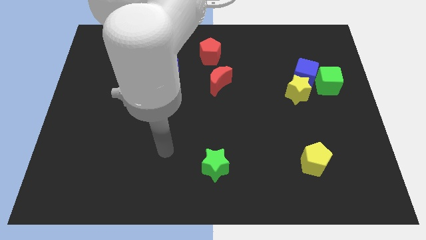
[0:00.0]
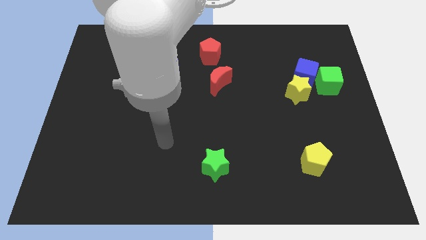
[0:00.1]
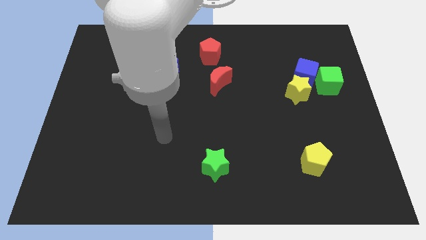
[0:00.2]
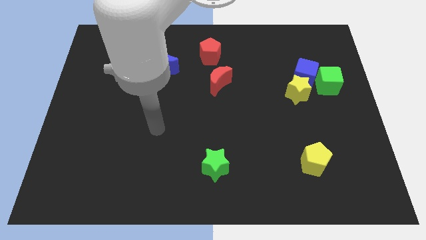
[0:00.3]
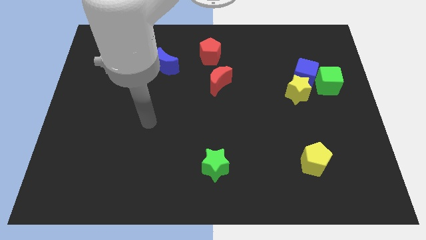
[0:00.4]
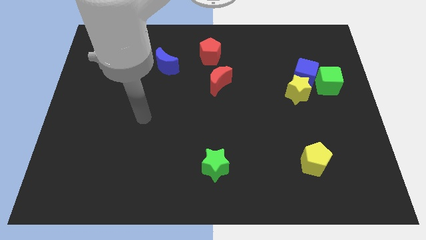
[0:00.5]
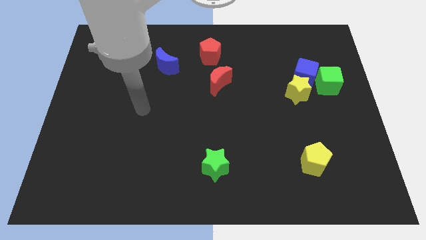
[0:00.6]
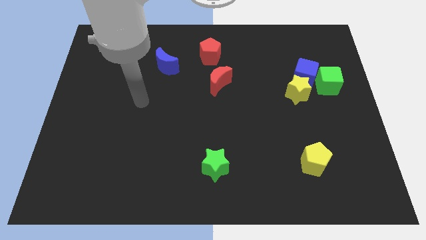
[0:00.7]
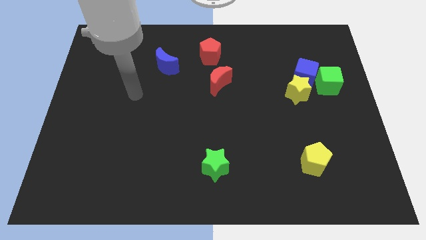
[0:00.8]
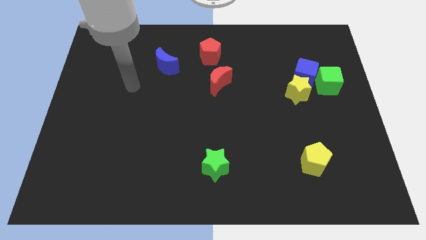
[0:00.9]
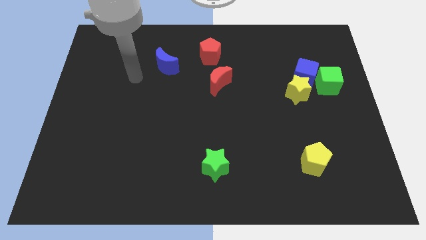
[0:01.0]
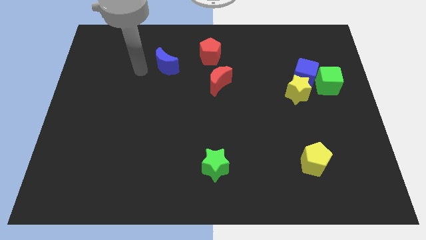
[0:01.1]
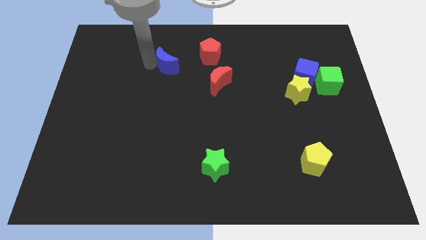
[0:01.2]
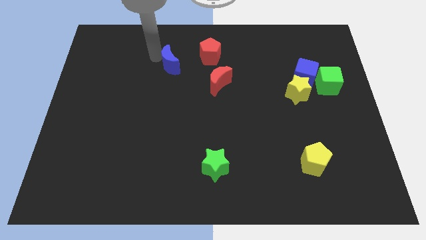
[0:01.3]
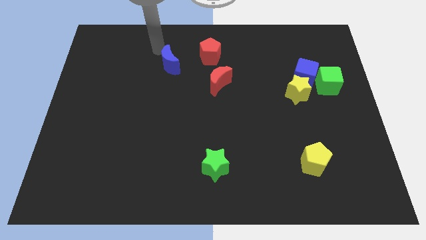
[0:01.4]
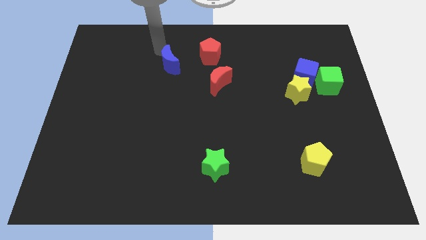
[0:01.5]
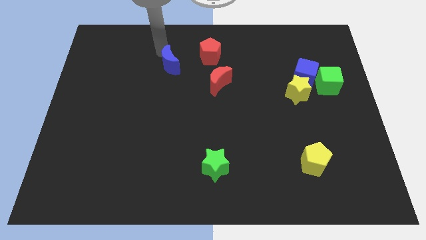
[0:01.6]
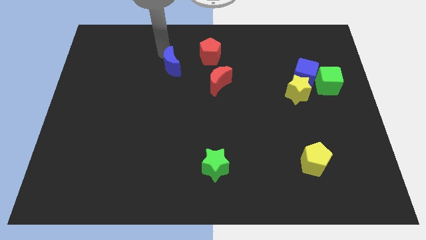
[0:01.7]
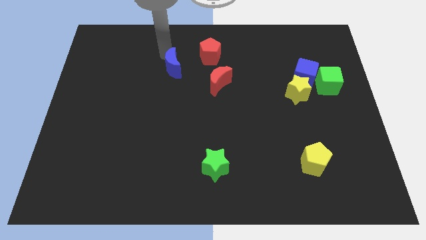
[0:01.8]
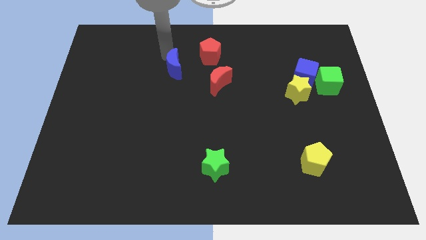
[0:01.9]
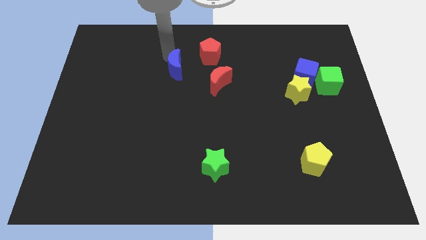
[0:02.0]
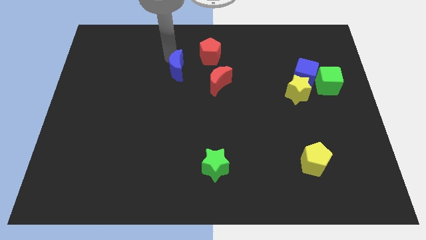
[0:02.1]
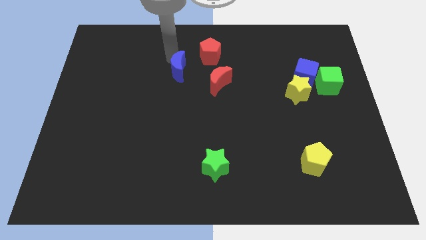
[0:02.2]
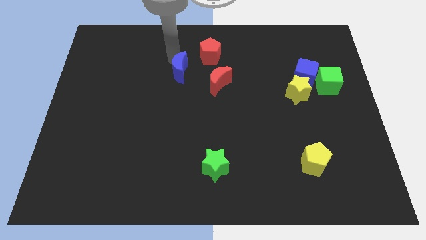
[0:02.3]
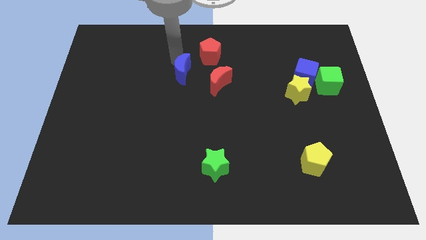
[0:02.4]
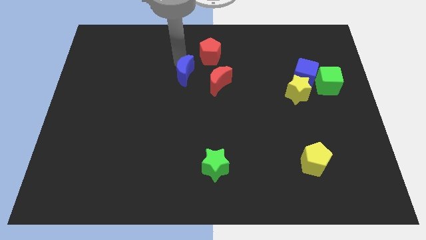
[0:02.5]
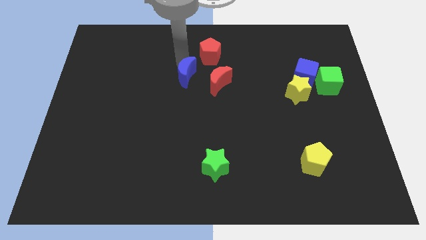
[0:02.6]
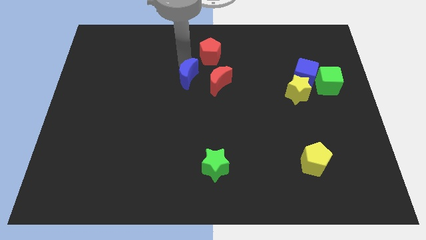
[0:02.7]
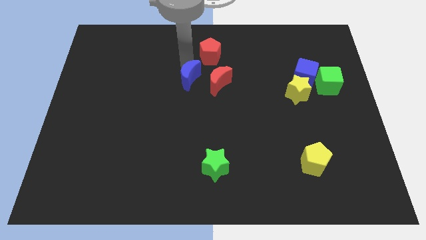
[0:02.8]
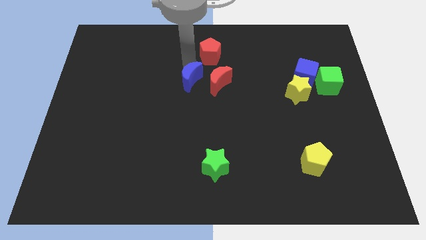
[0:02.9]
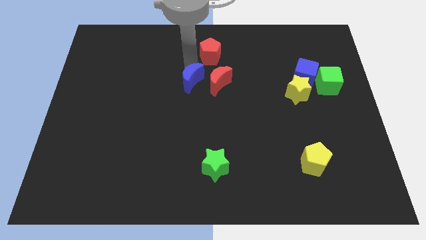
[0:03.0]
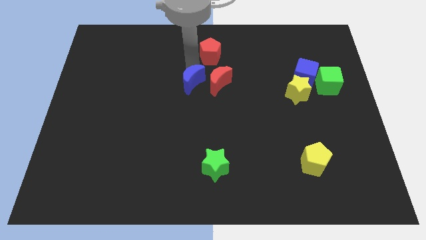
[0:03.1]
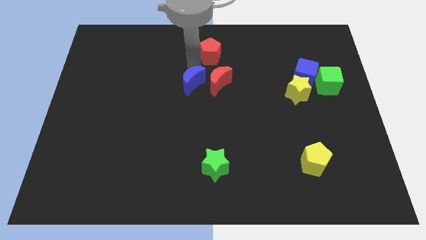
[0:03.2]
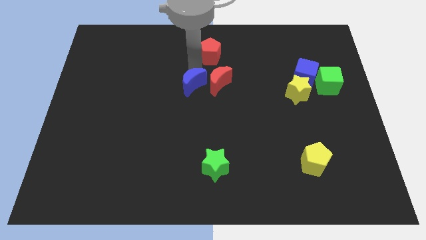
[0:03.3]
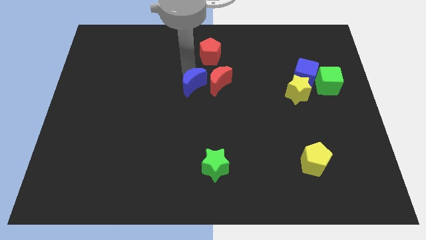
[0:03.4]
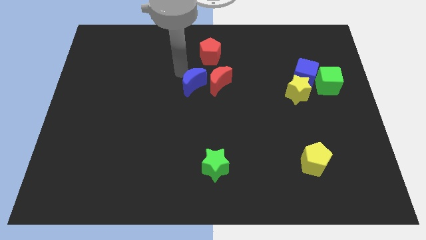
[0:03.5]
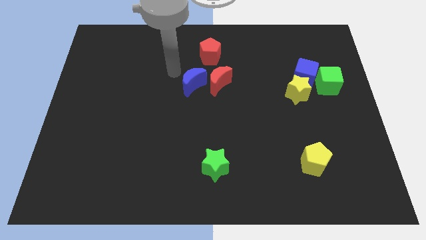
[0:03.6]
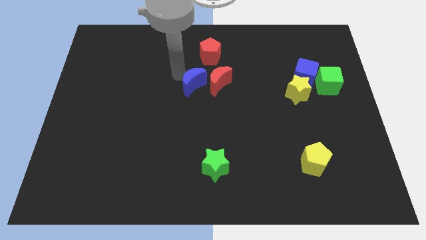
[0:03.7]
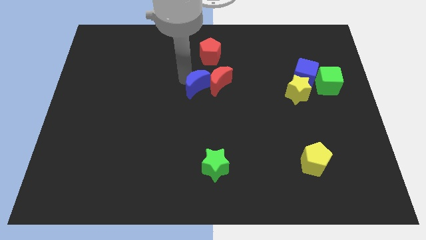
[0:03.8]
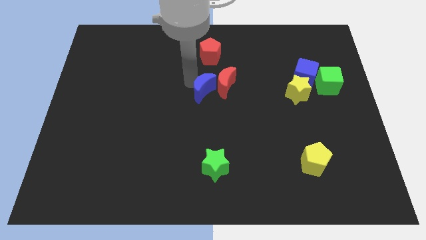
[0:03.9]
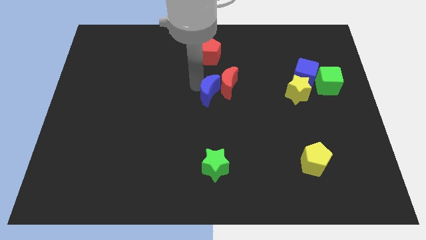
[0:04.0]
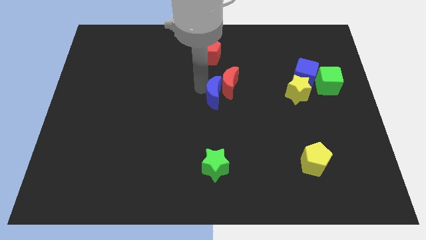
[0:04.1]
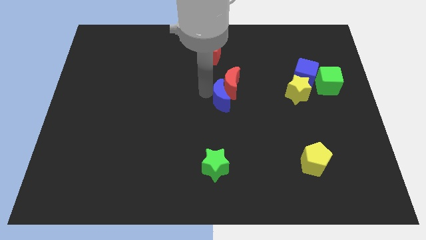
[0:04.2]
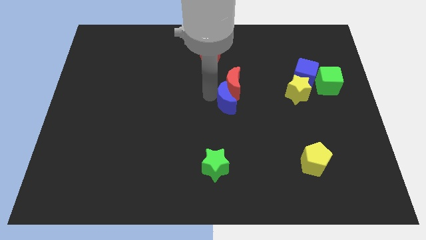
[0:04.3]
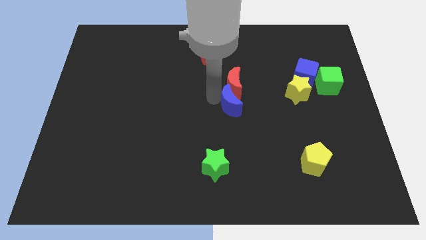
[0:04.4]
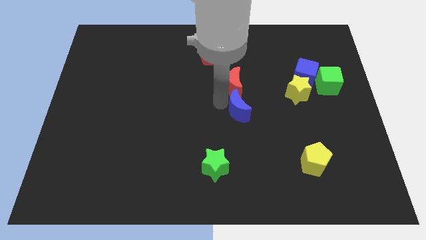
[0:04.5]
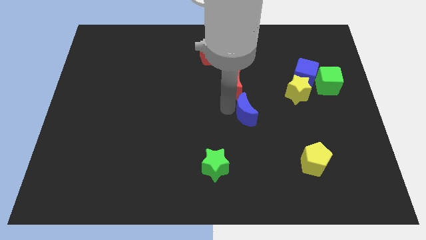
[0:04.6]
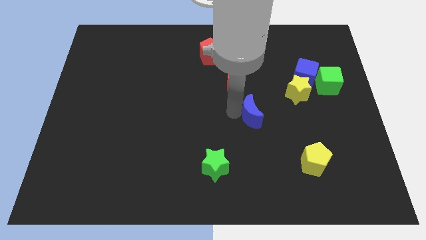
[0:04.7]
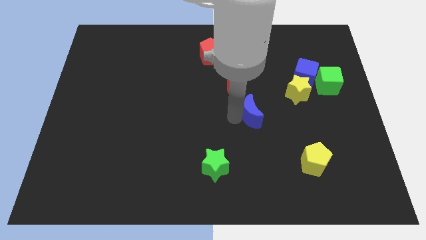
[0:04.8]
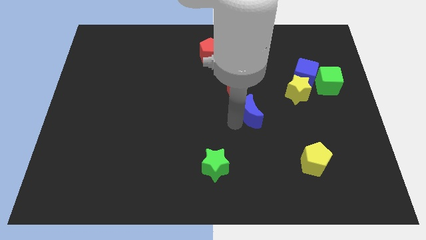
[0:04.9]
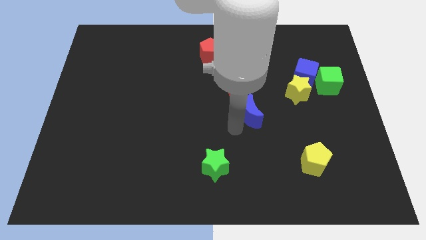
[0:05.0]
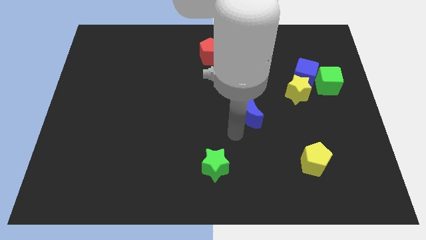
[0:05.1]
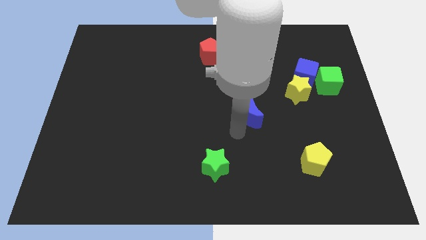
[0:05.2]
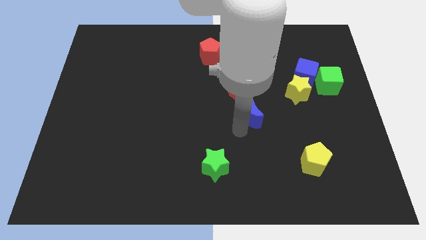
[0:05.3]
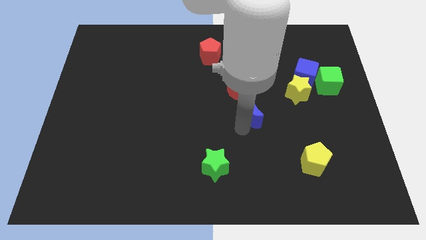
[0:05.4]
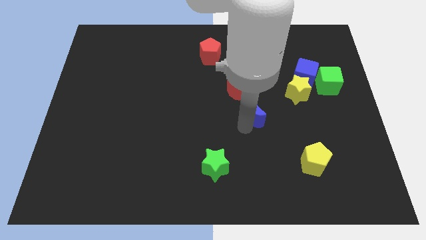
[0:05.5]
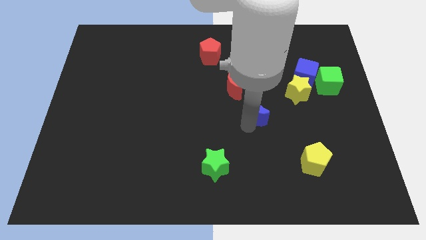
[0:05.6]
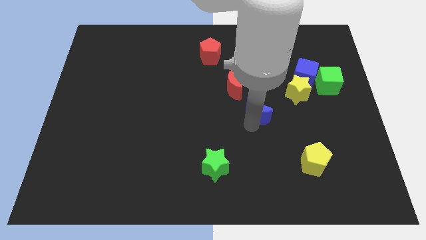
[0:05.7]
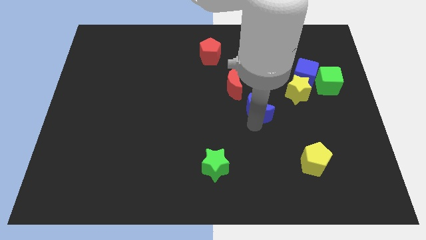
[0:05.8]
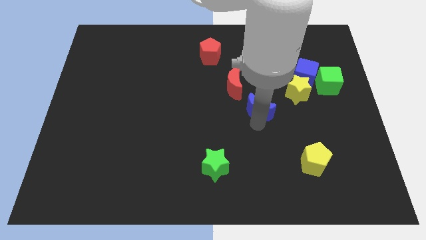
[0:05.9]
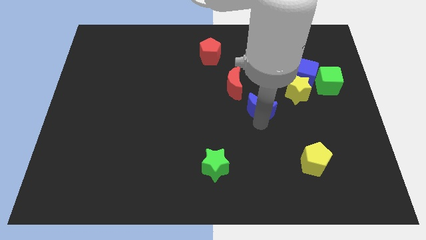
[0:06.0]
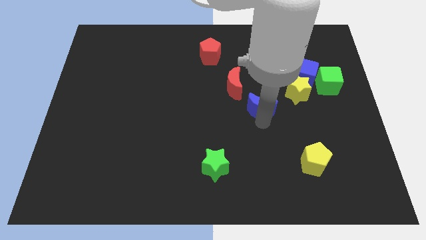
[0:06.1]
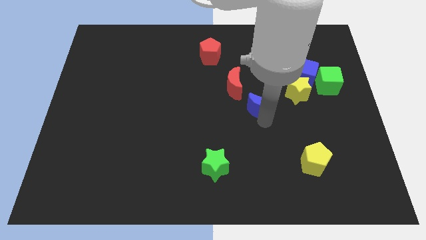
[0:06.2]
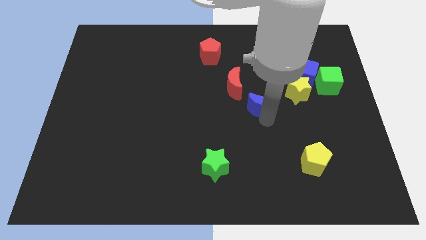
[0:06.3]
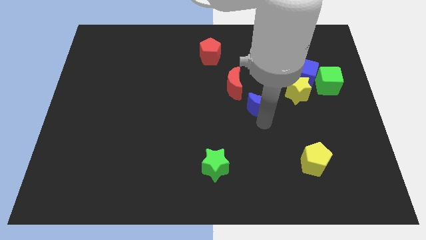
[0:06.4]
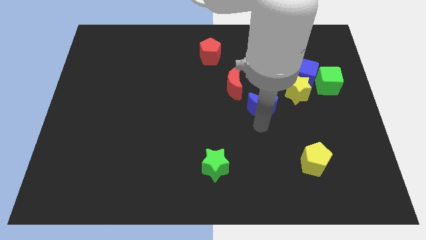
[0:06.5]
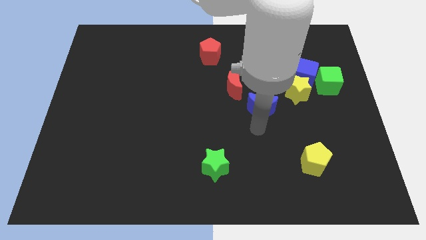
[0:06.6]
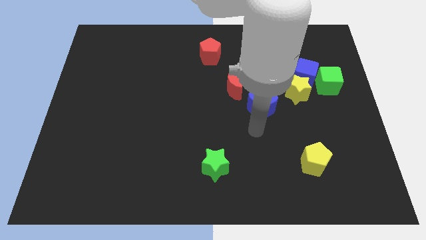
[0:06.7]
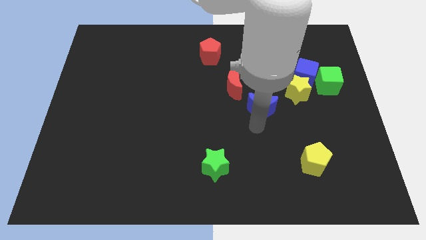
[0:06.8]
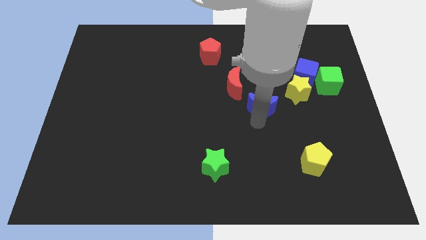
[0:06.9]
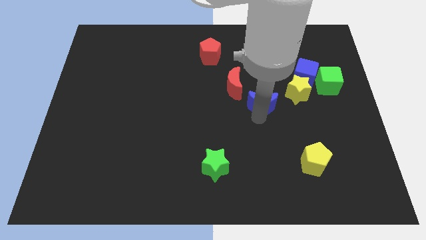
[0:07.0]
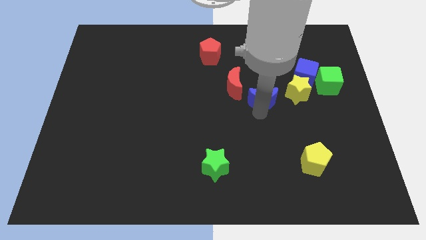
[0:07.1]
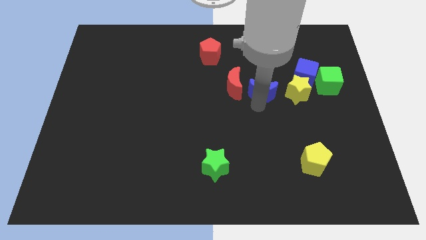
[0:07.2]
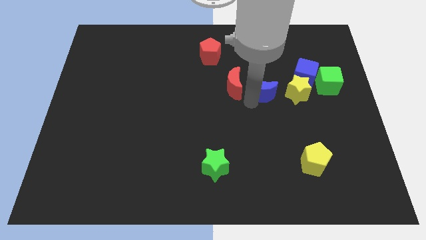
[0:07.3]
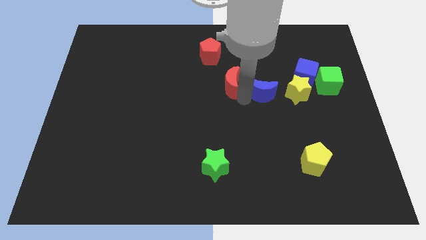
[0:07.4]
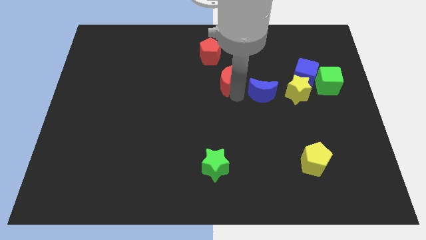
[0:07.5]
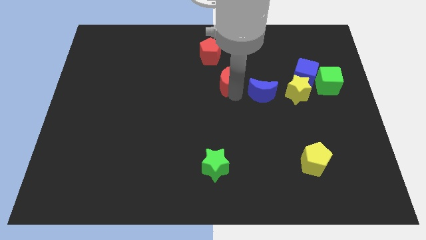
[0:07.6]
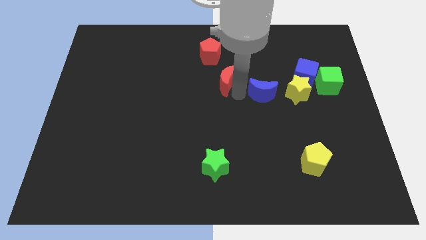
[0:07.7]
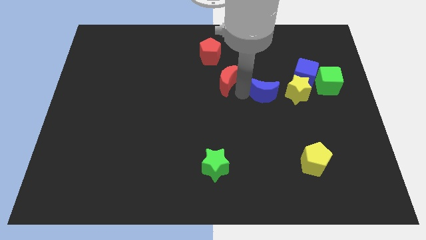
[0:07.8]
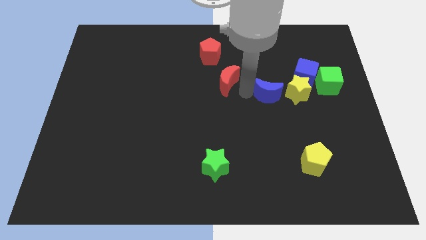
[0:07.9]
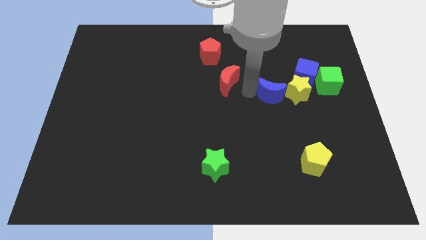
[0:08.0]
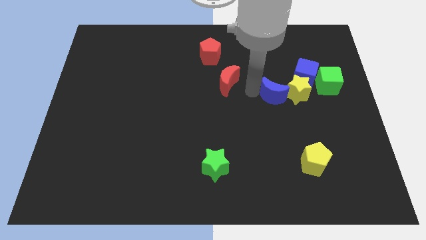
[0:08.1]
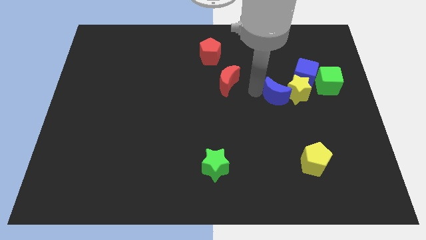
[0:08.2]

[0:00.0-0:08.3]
put the blue moon to the yellow star
